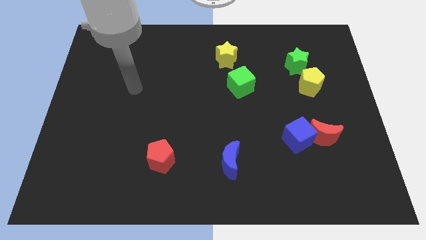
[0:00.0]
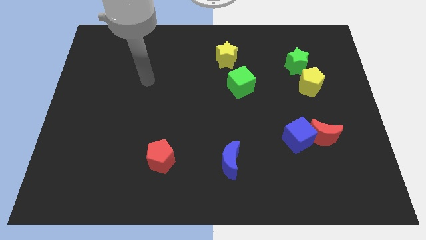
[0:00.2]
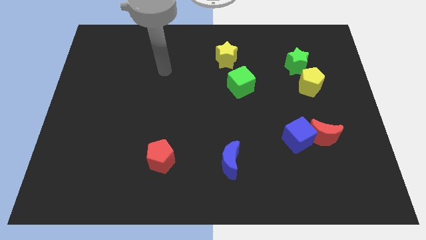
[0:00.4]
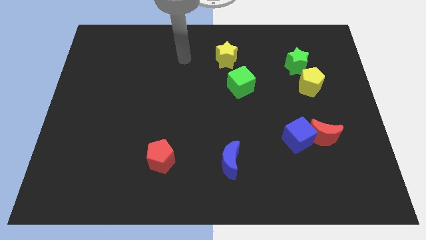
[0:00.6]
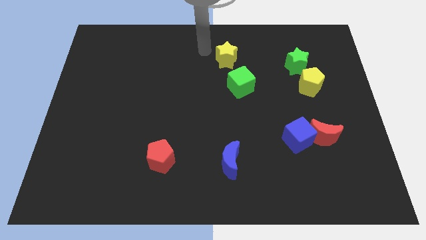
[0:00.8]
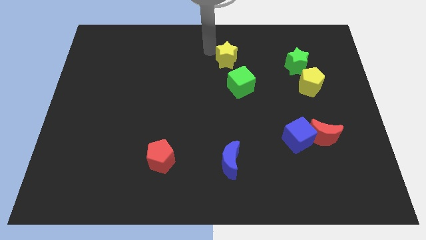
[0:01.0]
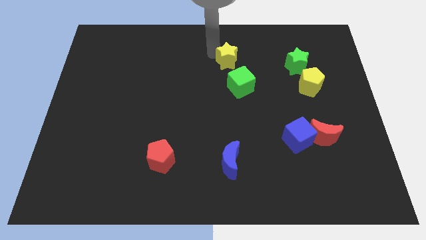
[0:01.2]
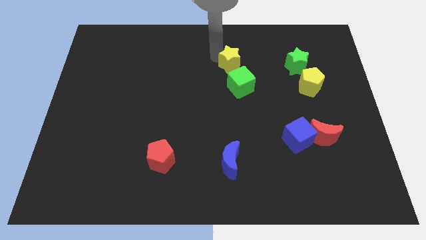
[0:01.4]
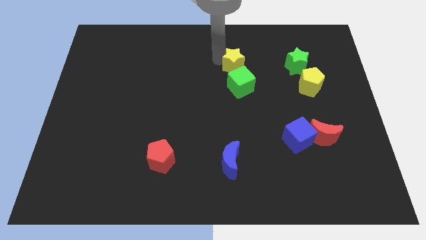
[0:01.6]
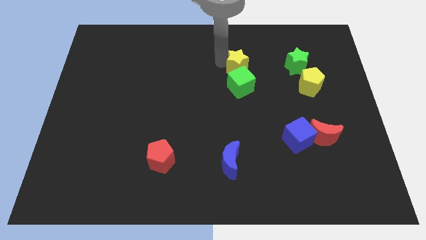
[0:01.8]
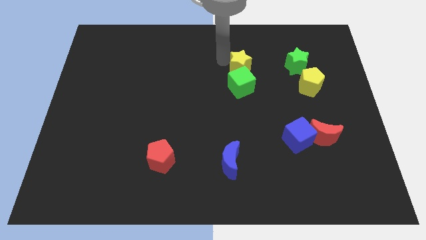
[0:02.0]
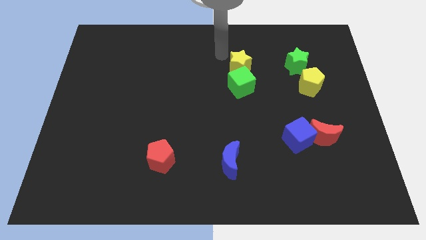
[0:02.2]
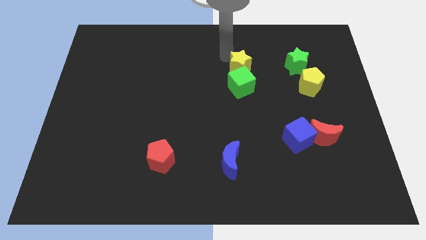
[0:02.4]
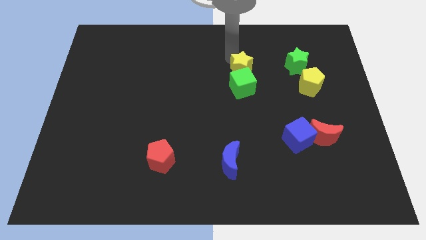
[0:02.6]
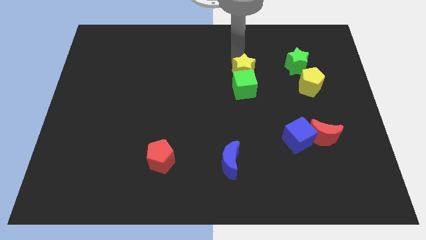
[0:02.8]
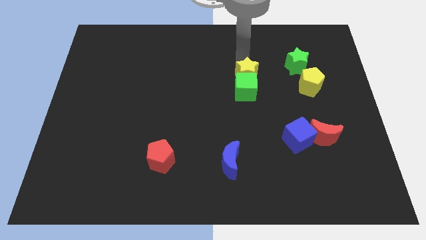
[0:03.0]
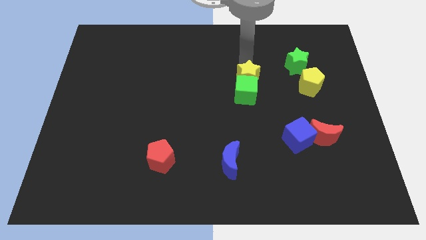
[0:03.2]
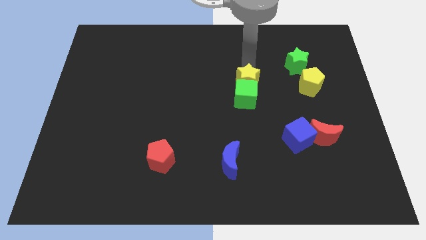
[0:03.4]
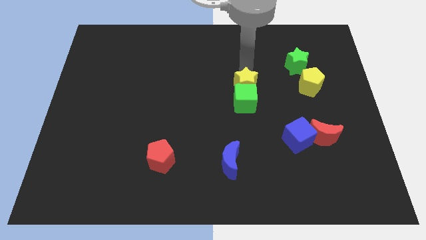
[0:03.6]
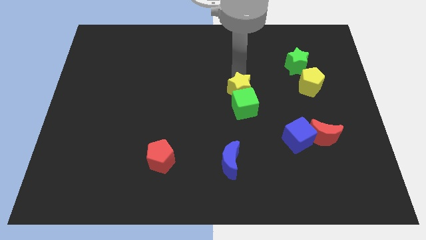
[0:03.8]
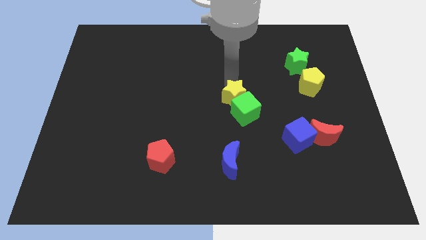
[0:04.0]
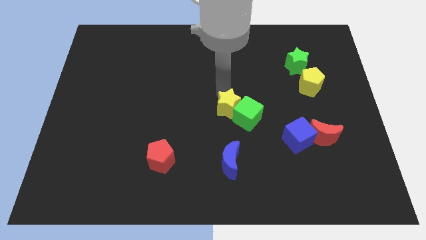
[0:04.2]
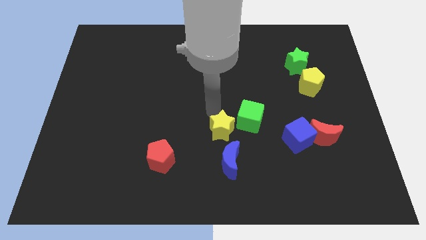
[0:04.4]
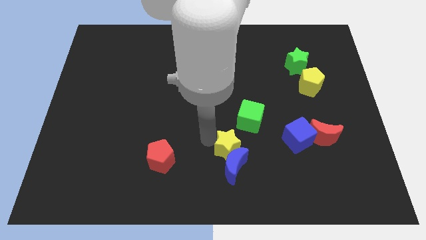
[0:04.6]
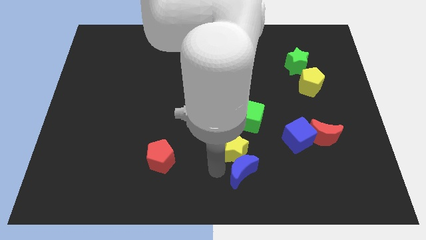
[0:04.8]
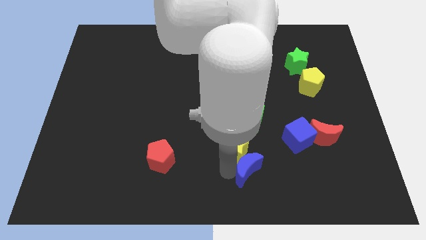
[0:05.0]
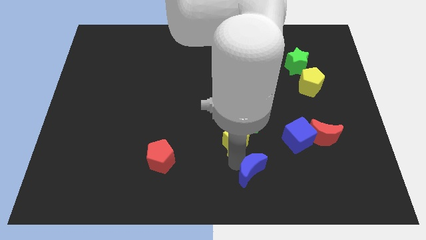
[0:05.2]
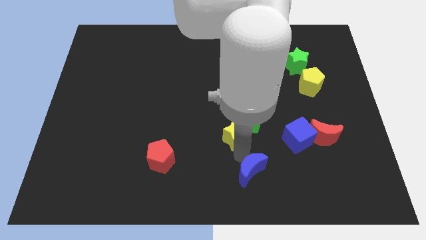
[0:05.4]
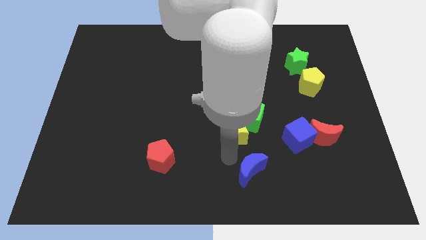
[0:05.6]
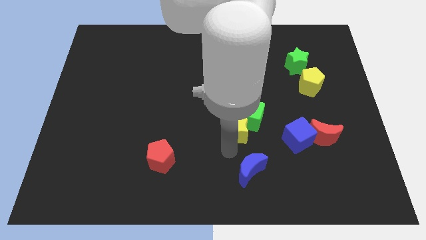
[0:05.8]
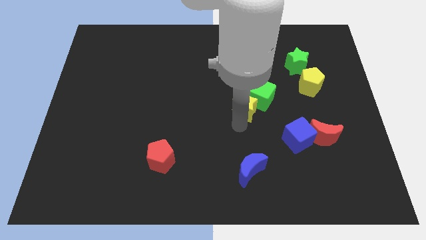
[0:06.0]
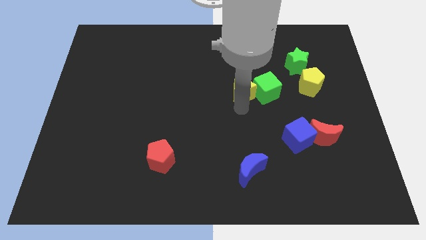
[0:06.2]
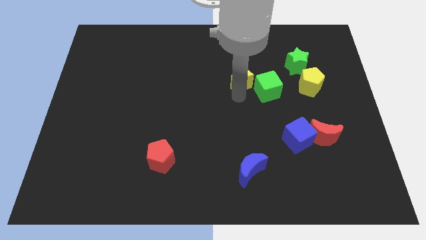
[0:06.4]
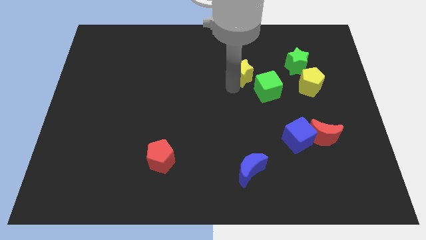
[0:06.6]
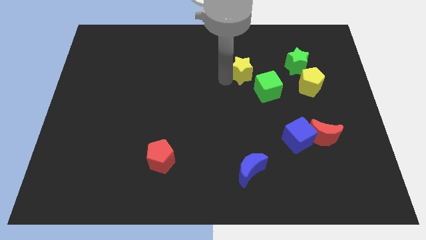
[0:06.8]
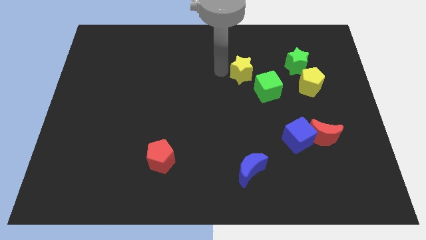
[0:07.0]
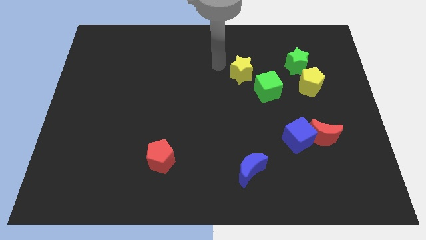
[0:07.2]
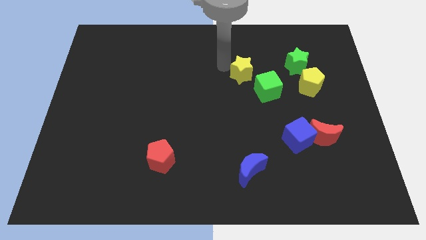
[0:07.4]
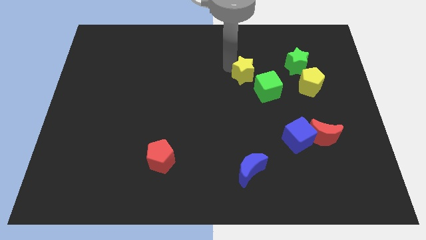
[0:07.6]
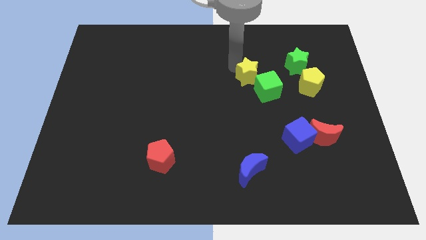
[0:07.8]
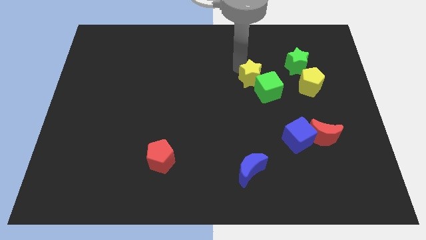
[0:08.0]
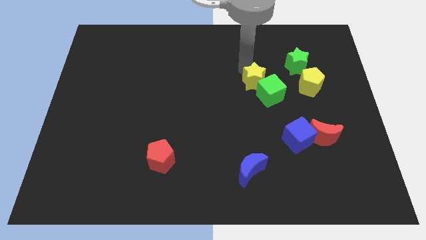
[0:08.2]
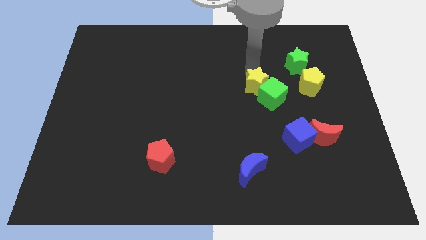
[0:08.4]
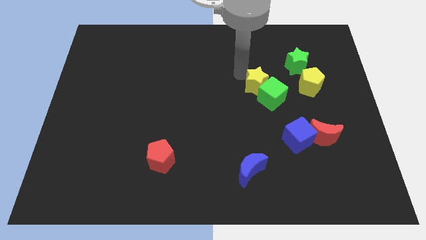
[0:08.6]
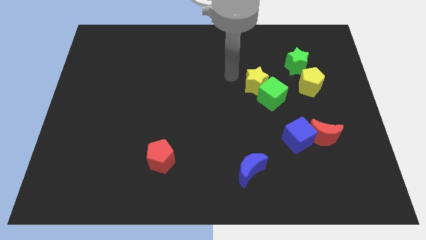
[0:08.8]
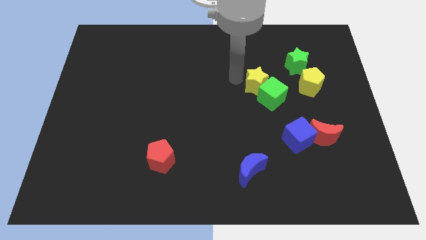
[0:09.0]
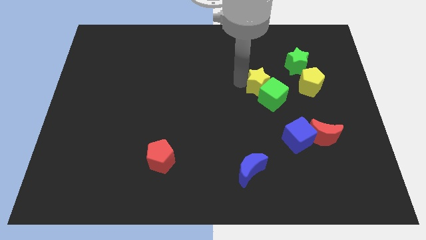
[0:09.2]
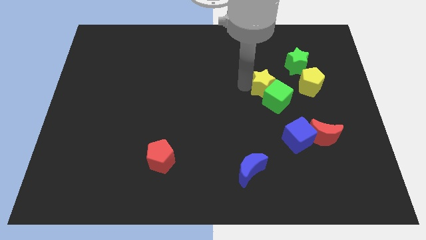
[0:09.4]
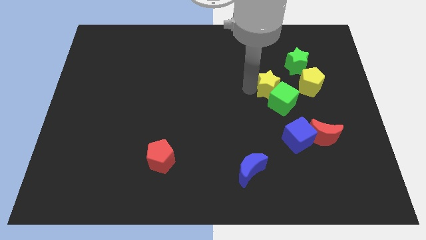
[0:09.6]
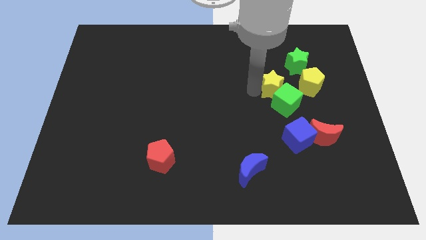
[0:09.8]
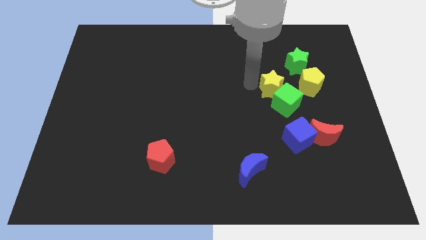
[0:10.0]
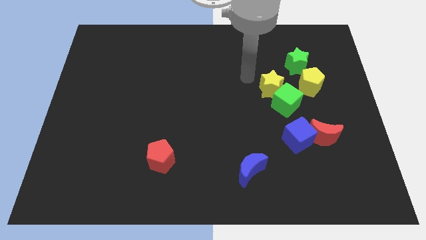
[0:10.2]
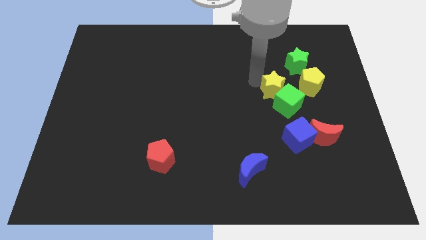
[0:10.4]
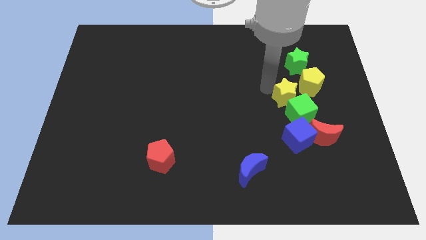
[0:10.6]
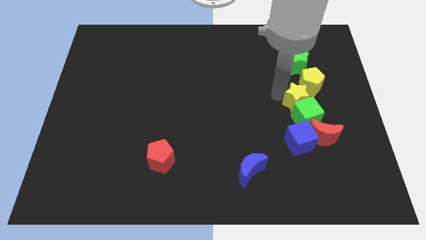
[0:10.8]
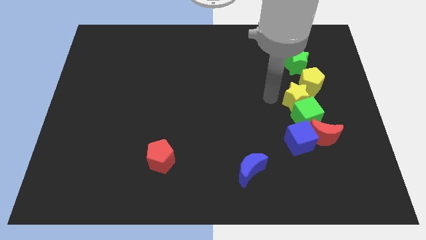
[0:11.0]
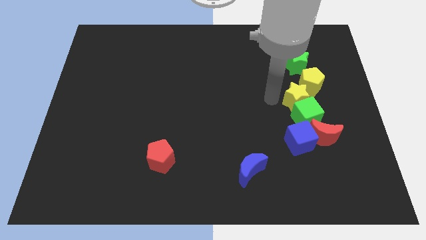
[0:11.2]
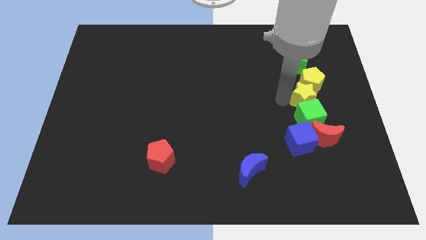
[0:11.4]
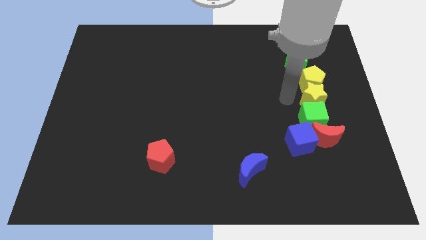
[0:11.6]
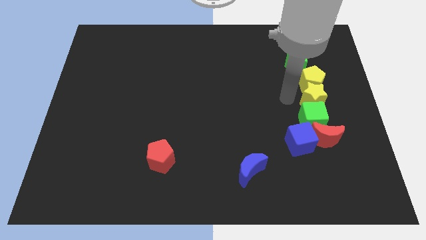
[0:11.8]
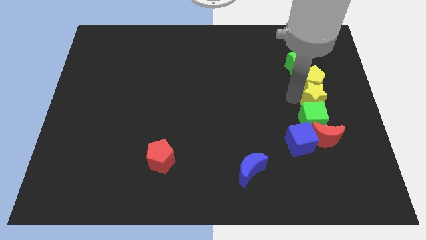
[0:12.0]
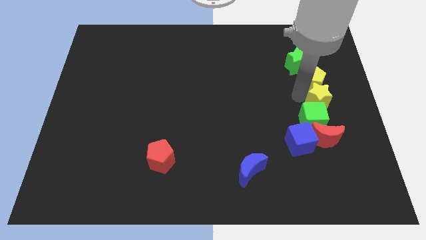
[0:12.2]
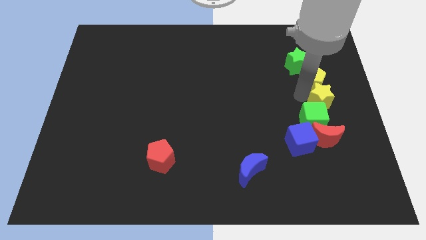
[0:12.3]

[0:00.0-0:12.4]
slide the yellow star to the center right
